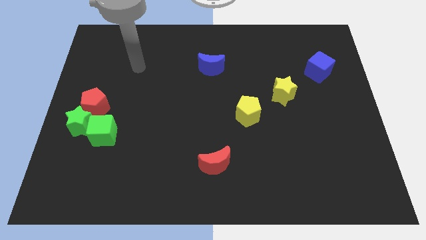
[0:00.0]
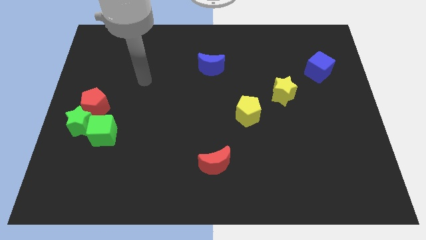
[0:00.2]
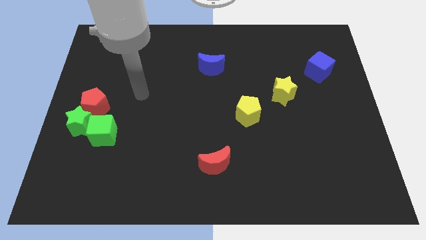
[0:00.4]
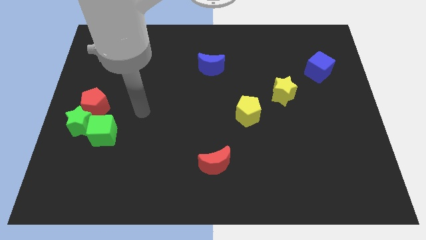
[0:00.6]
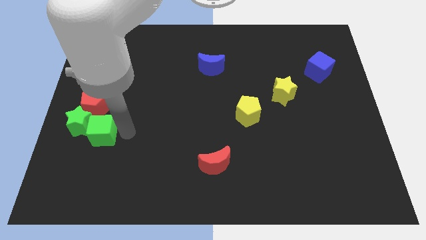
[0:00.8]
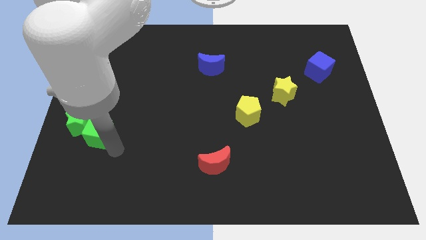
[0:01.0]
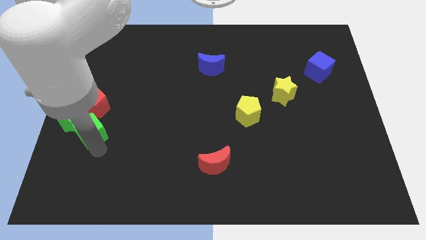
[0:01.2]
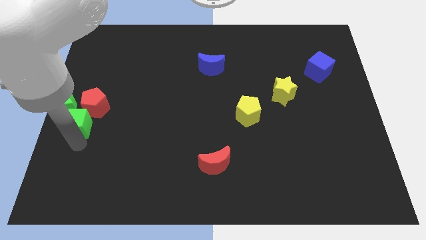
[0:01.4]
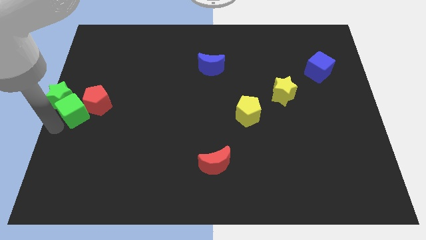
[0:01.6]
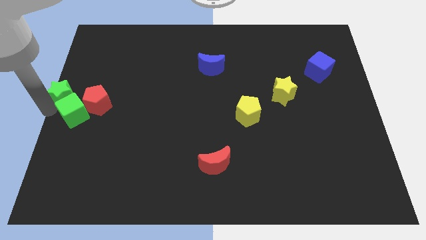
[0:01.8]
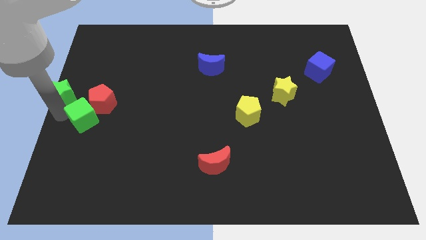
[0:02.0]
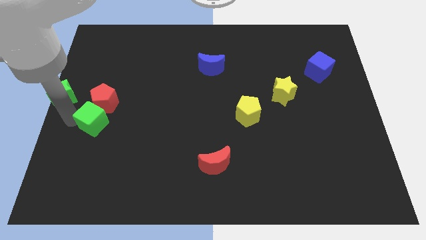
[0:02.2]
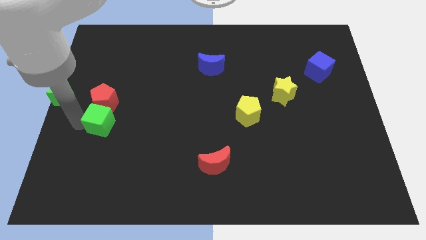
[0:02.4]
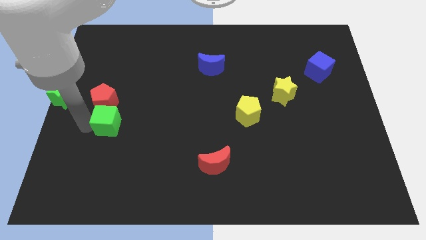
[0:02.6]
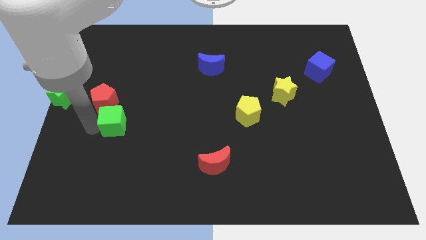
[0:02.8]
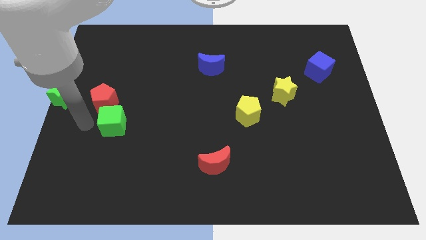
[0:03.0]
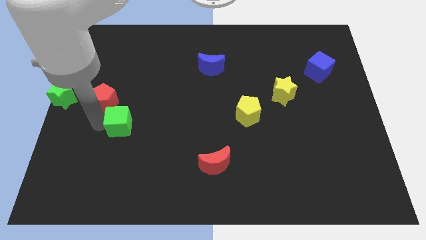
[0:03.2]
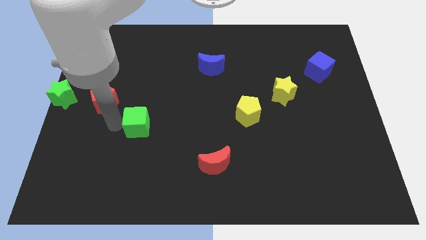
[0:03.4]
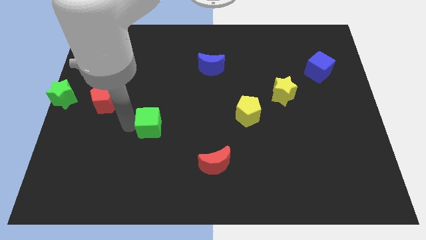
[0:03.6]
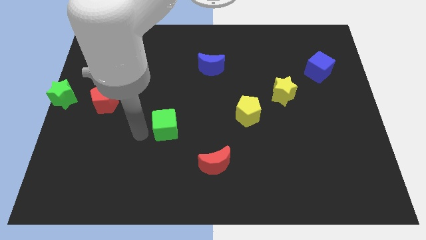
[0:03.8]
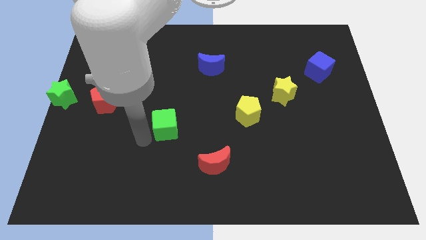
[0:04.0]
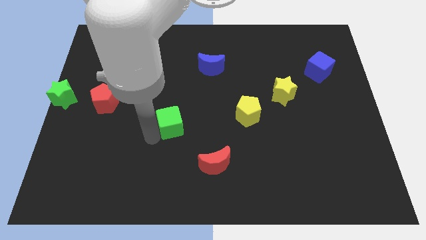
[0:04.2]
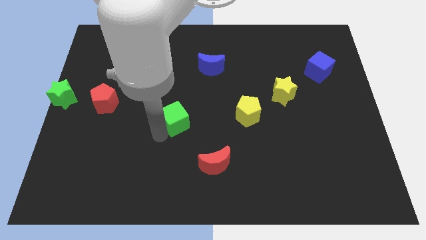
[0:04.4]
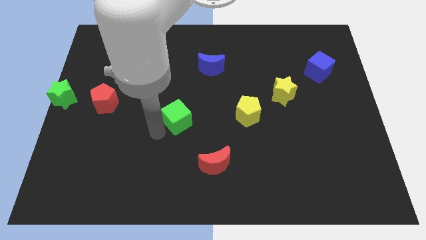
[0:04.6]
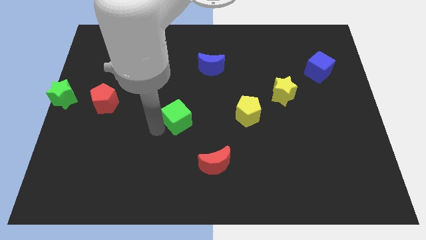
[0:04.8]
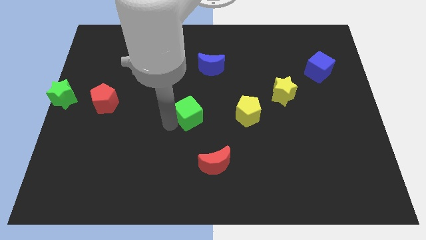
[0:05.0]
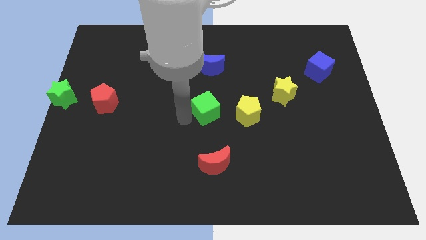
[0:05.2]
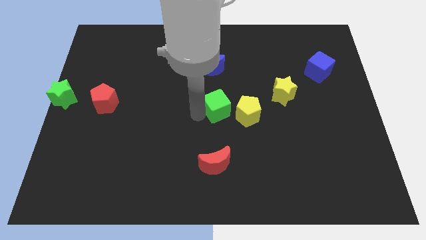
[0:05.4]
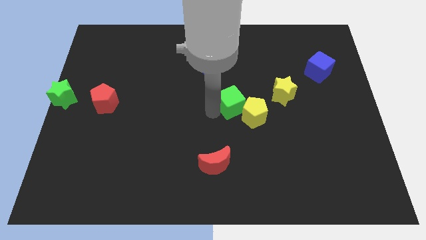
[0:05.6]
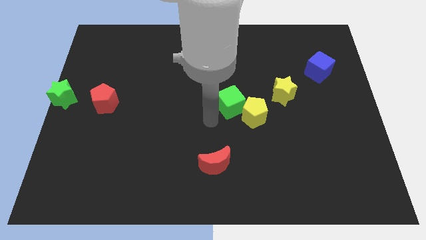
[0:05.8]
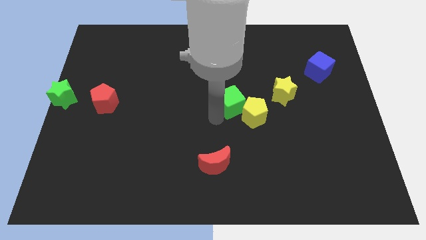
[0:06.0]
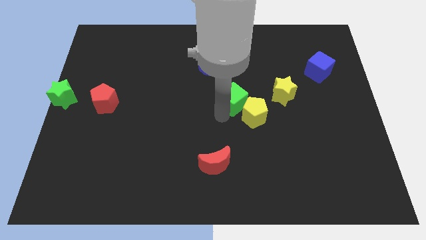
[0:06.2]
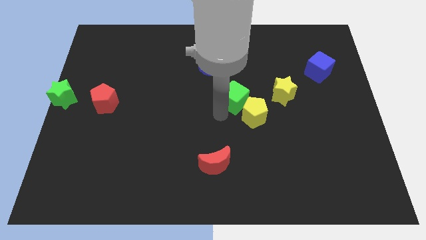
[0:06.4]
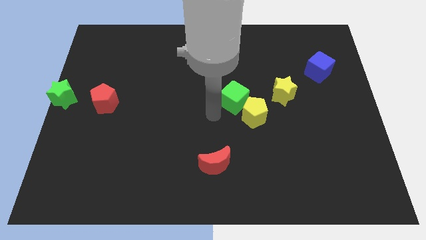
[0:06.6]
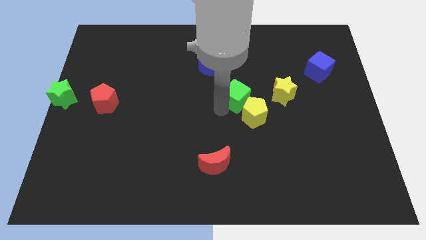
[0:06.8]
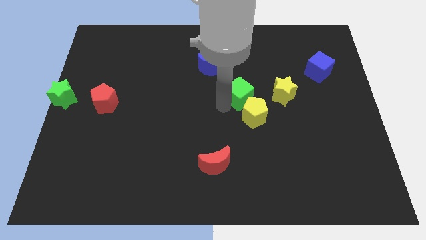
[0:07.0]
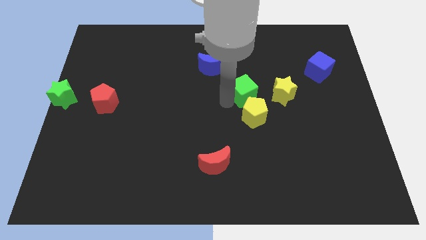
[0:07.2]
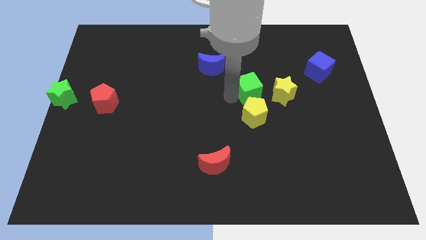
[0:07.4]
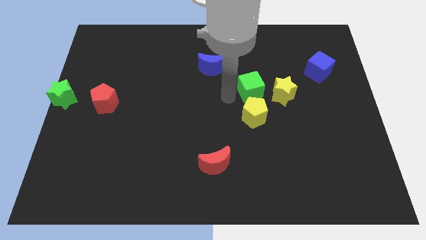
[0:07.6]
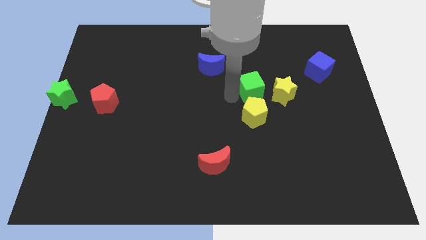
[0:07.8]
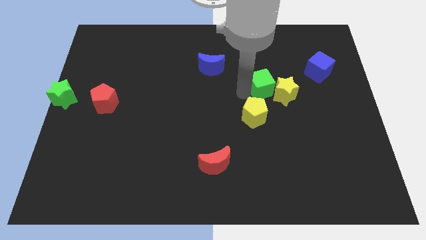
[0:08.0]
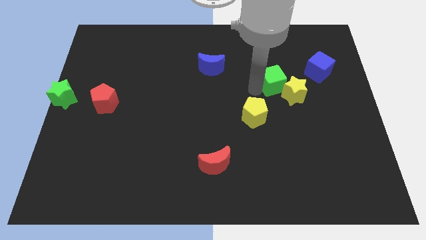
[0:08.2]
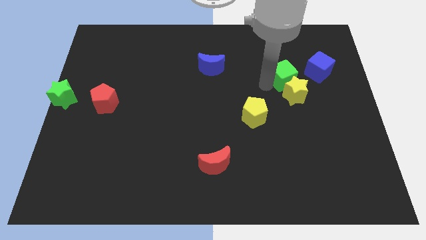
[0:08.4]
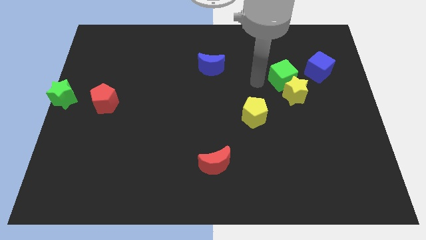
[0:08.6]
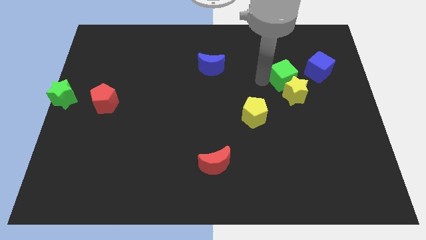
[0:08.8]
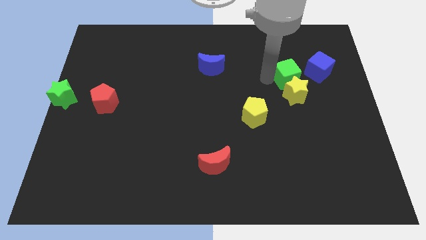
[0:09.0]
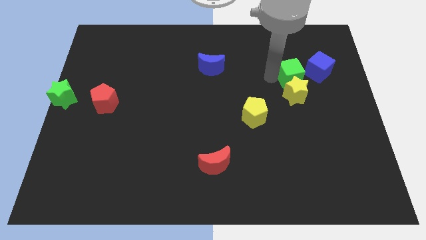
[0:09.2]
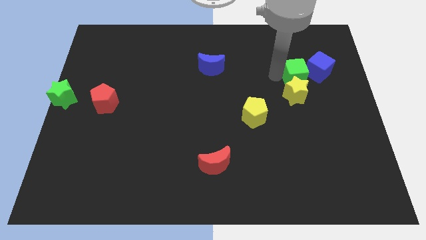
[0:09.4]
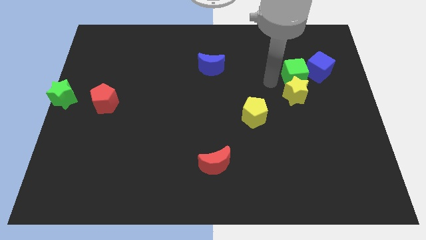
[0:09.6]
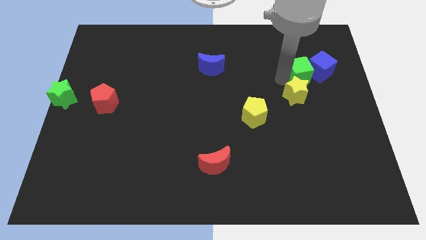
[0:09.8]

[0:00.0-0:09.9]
put the green cube next to the blue cube

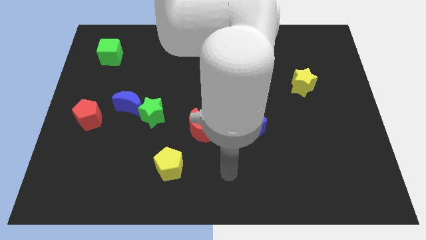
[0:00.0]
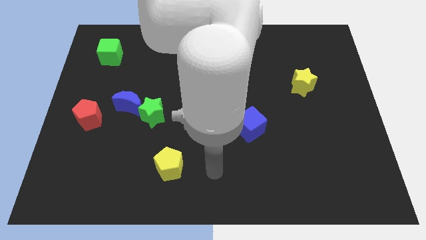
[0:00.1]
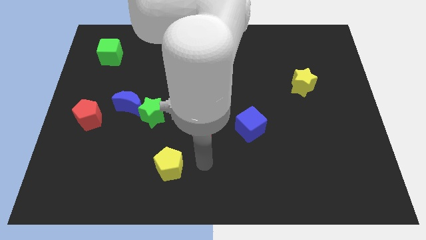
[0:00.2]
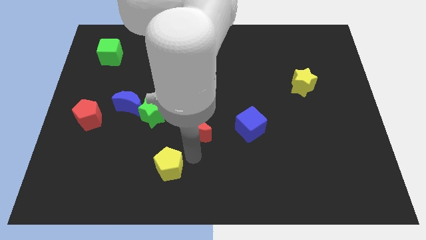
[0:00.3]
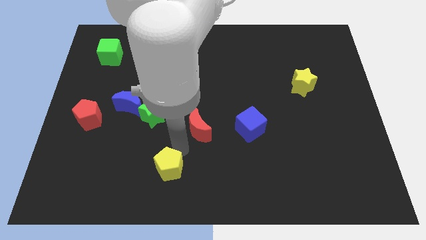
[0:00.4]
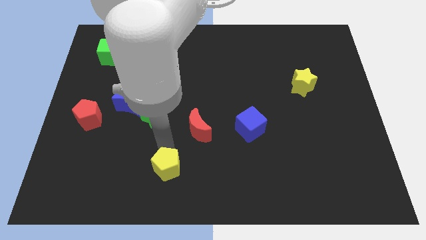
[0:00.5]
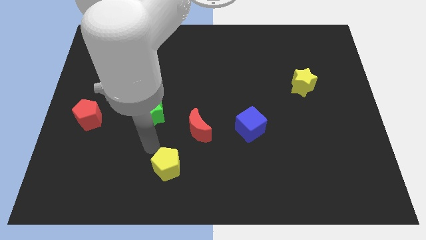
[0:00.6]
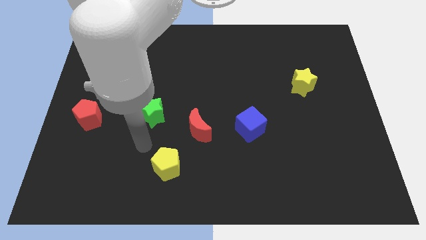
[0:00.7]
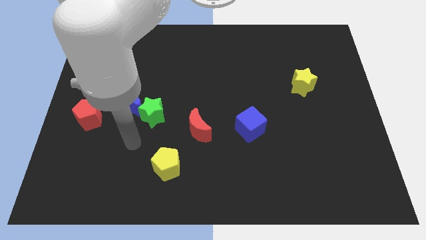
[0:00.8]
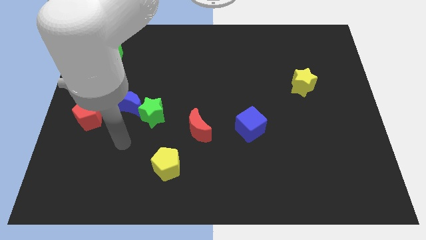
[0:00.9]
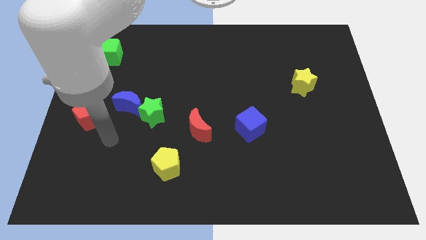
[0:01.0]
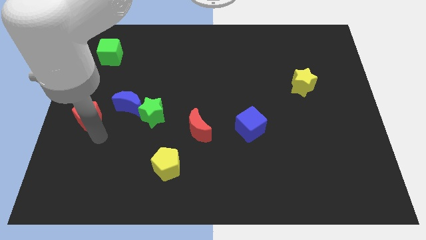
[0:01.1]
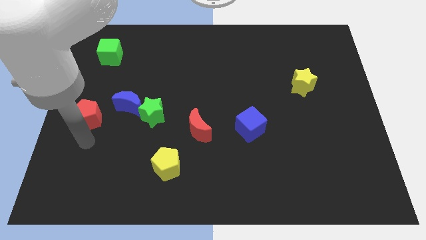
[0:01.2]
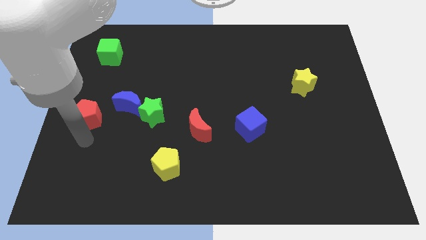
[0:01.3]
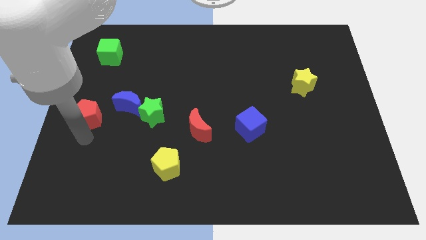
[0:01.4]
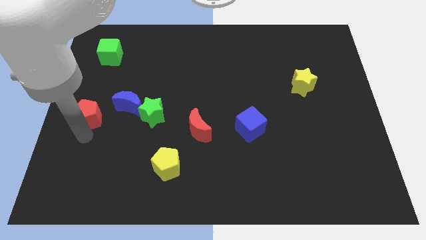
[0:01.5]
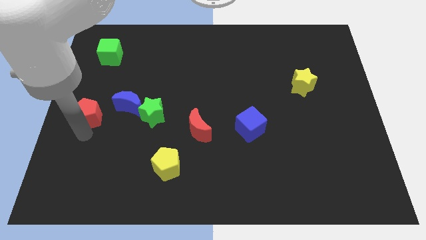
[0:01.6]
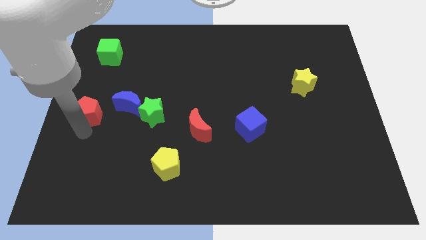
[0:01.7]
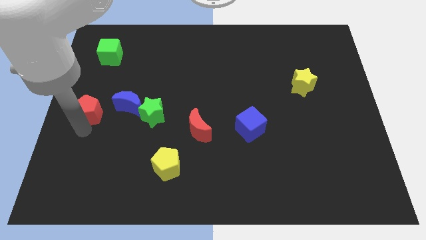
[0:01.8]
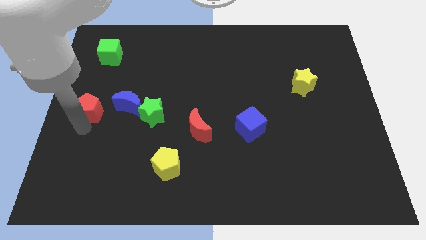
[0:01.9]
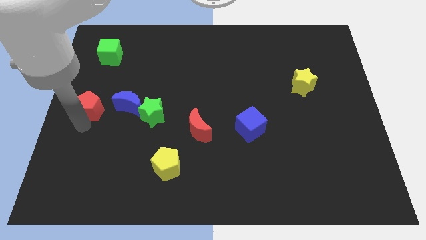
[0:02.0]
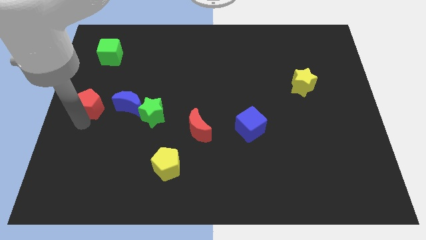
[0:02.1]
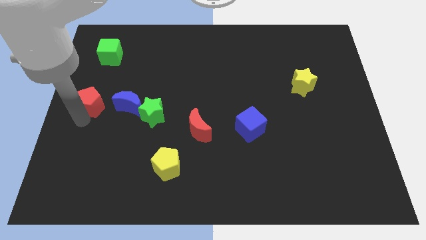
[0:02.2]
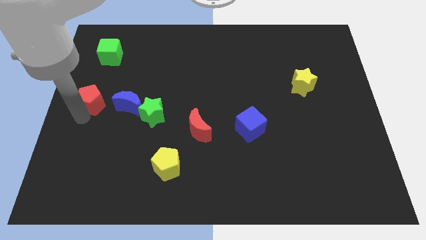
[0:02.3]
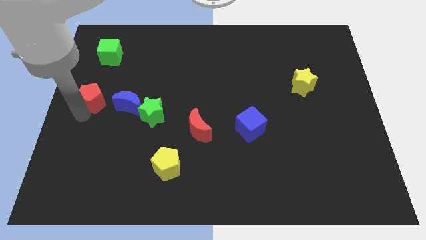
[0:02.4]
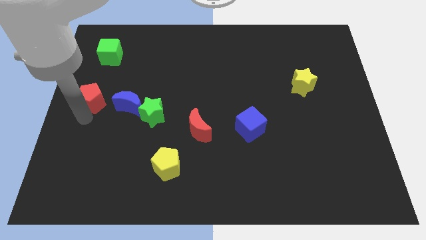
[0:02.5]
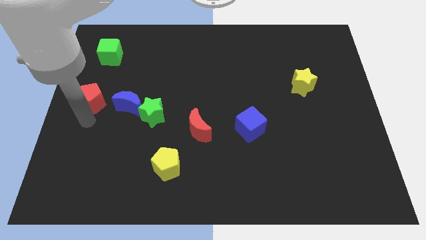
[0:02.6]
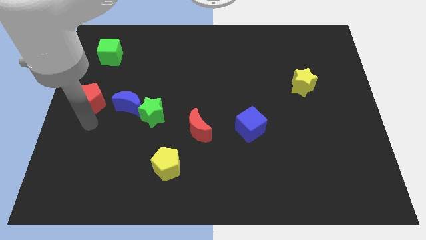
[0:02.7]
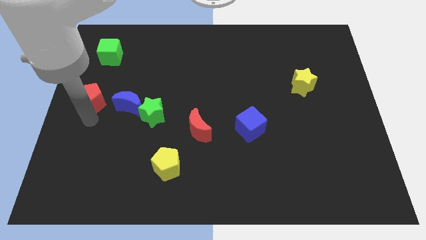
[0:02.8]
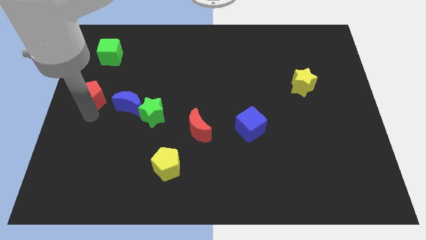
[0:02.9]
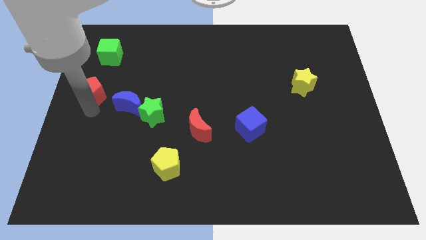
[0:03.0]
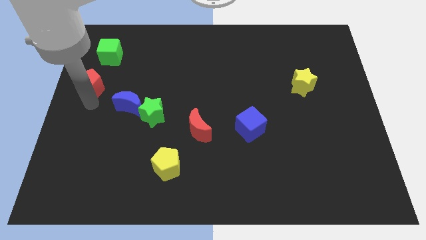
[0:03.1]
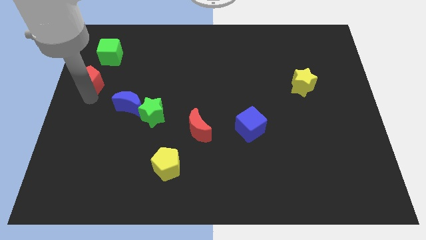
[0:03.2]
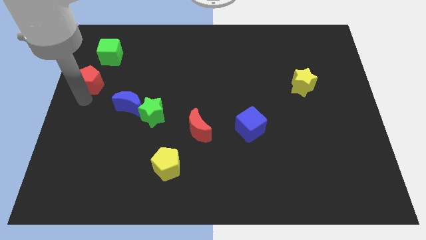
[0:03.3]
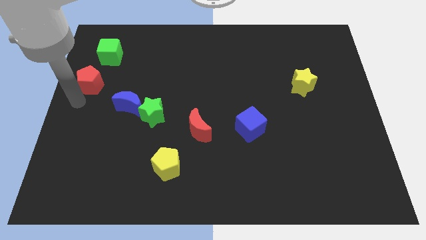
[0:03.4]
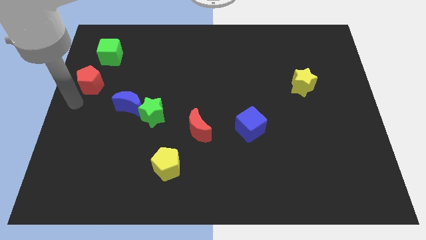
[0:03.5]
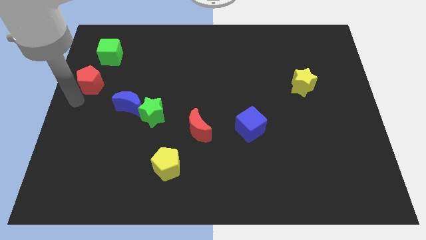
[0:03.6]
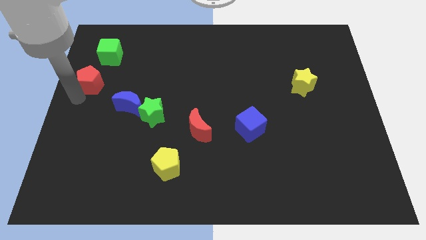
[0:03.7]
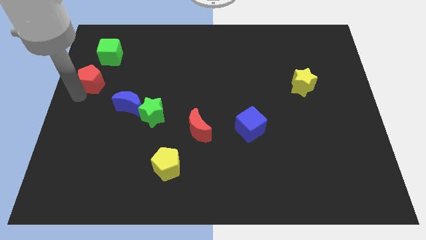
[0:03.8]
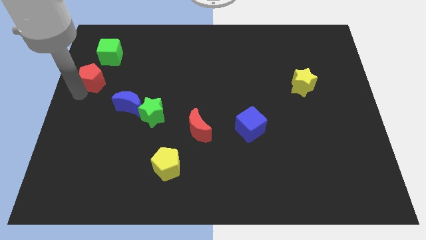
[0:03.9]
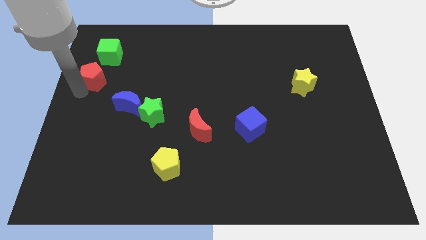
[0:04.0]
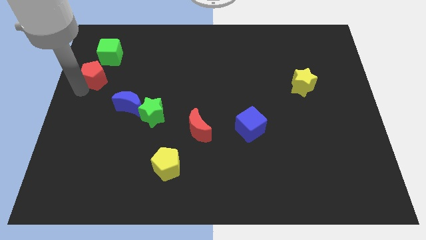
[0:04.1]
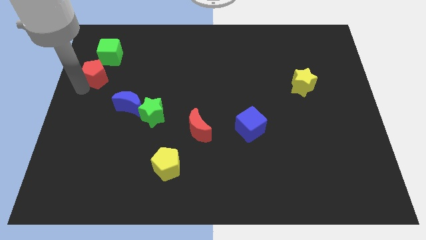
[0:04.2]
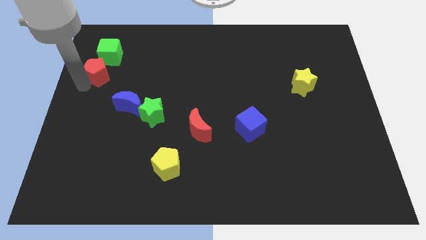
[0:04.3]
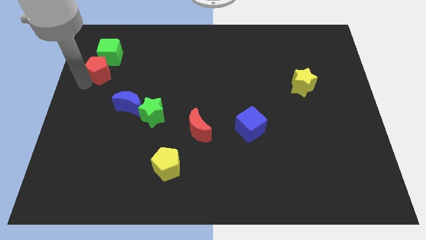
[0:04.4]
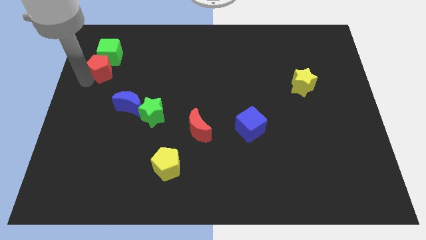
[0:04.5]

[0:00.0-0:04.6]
slide the red pentagon to the green cube
